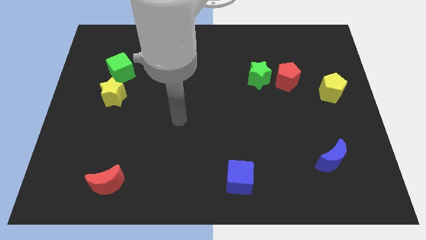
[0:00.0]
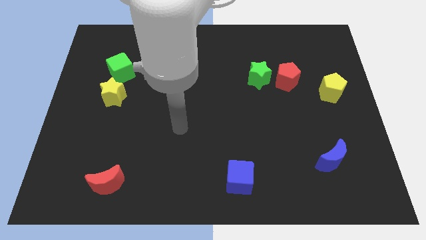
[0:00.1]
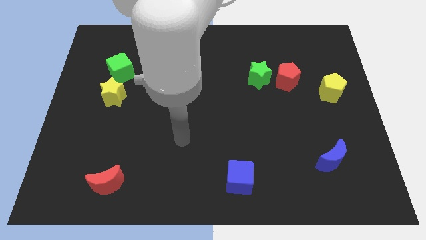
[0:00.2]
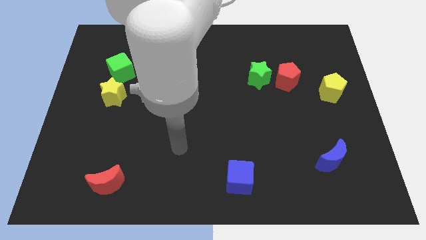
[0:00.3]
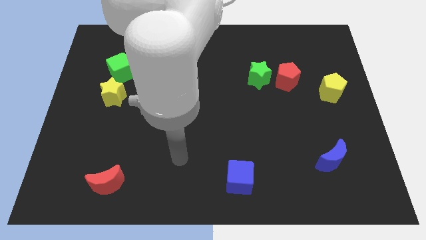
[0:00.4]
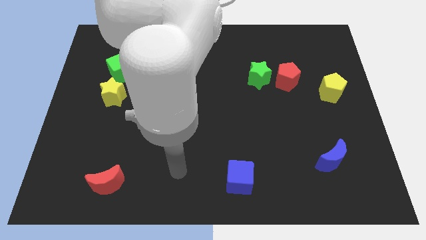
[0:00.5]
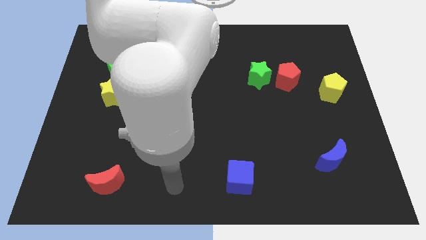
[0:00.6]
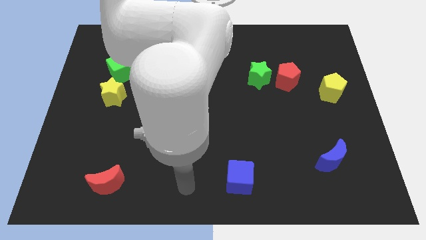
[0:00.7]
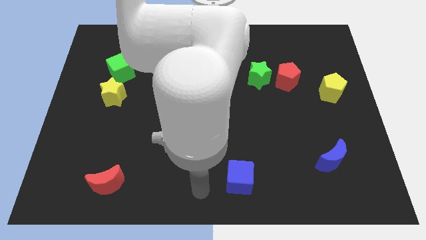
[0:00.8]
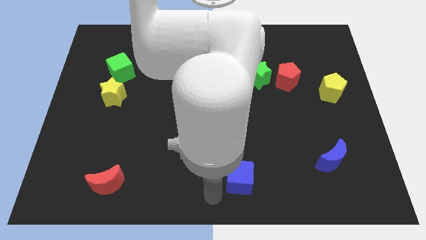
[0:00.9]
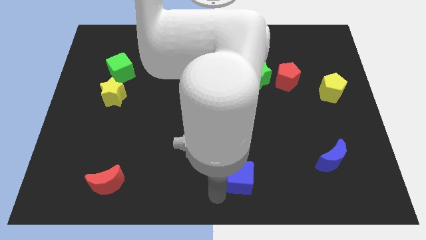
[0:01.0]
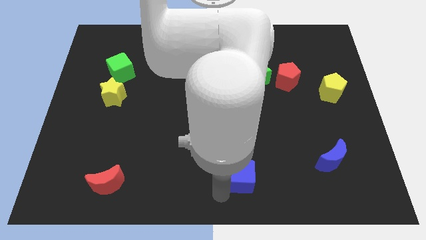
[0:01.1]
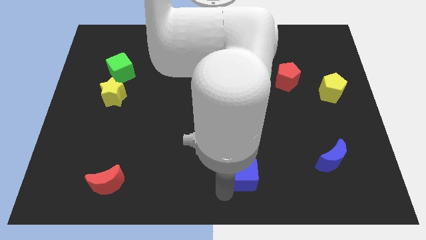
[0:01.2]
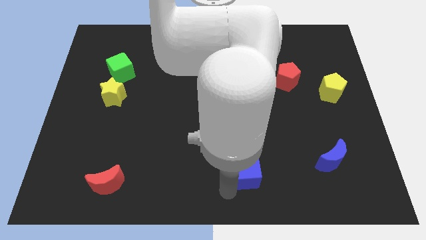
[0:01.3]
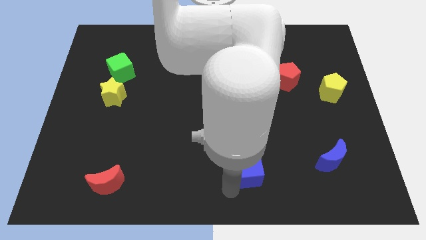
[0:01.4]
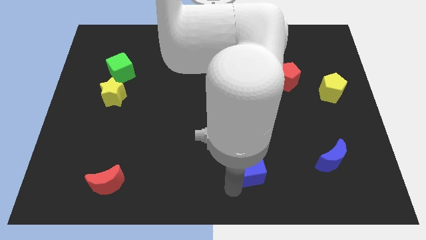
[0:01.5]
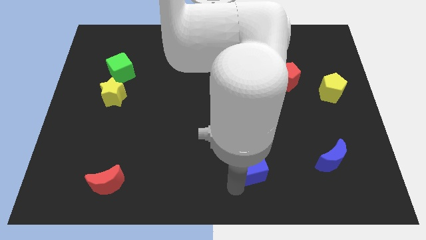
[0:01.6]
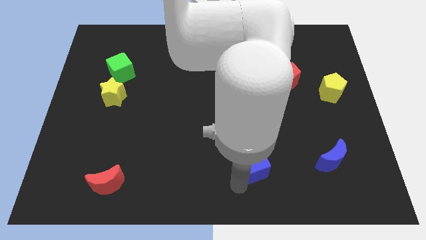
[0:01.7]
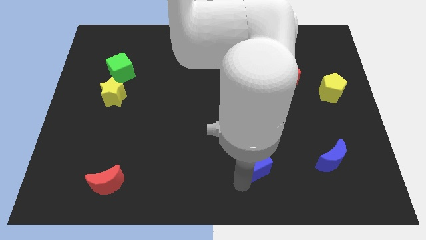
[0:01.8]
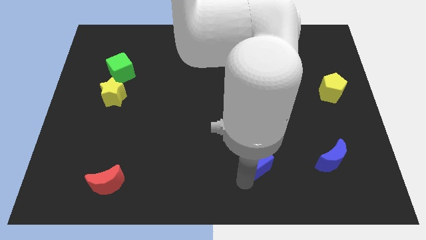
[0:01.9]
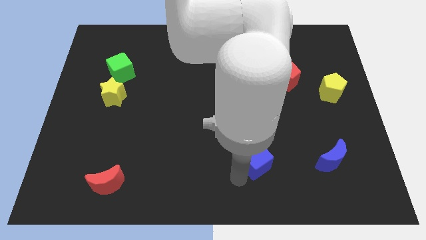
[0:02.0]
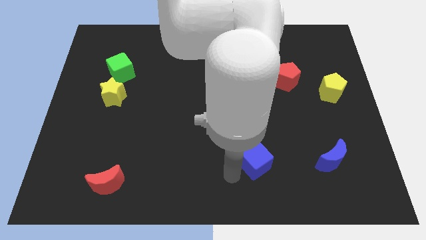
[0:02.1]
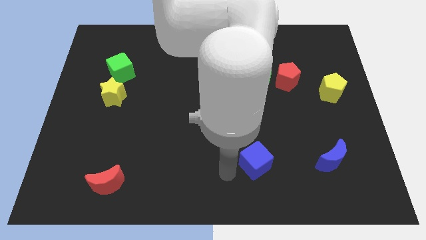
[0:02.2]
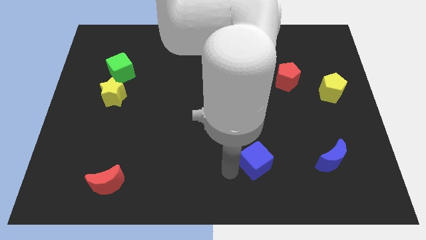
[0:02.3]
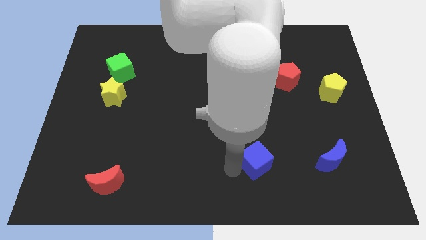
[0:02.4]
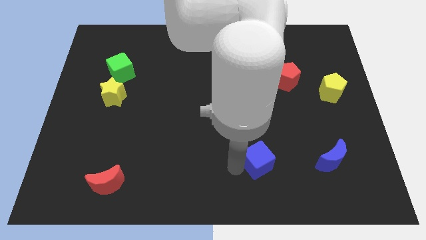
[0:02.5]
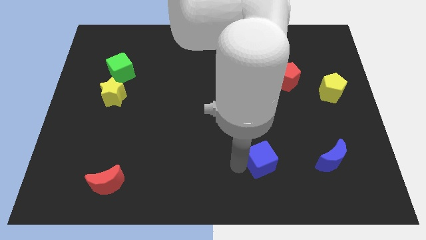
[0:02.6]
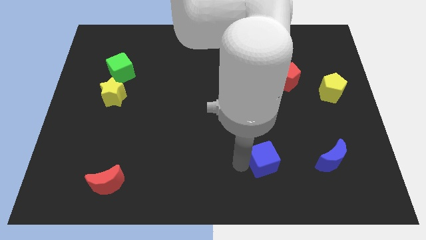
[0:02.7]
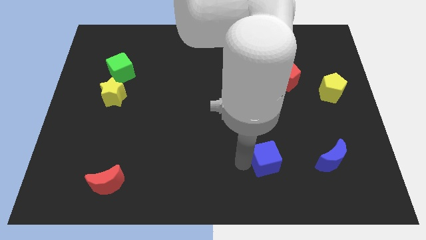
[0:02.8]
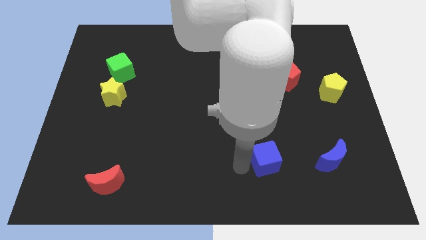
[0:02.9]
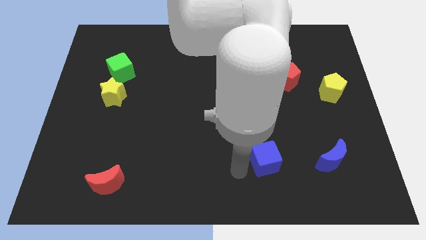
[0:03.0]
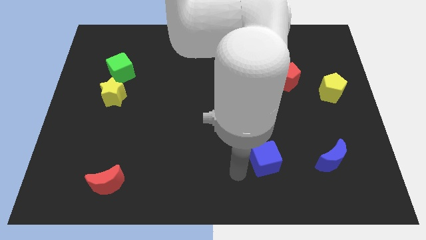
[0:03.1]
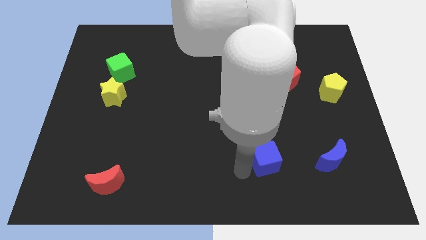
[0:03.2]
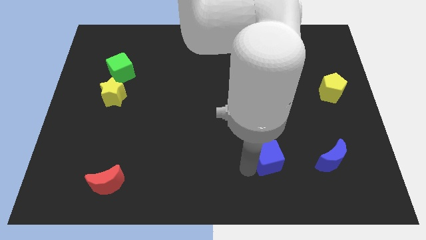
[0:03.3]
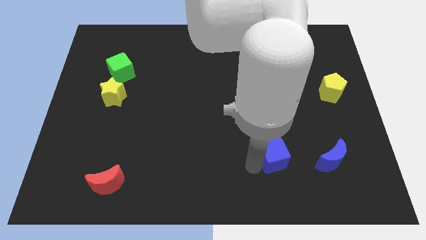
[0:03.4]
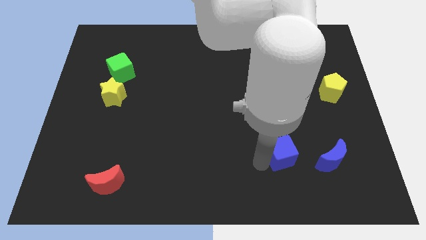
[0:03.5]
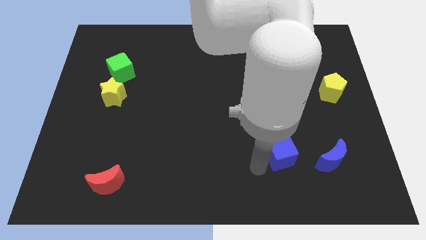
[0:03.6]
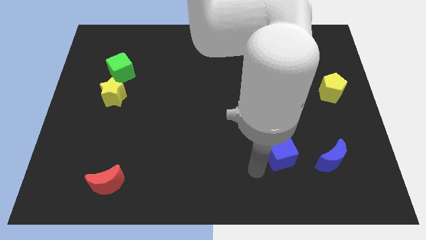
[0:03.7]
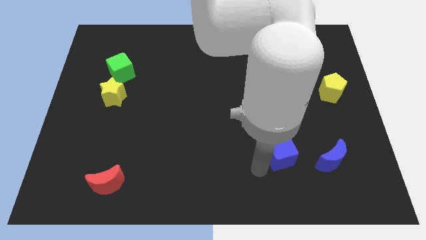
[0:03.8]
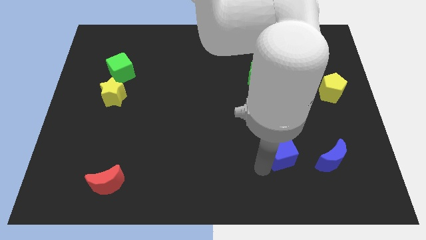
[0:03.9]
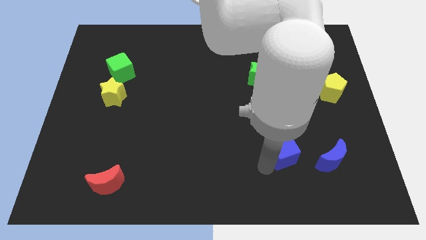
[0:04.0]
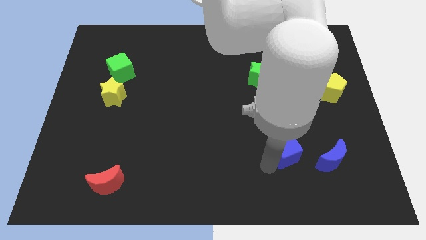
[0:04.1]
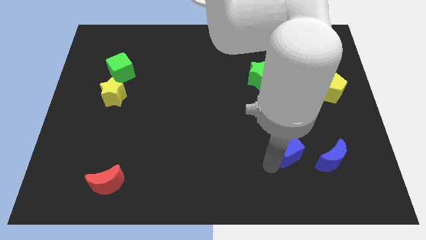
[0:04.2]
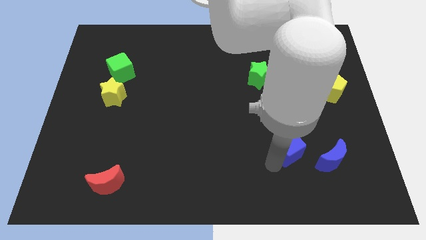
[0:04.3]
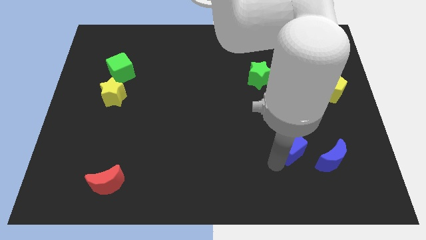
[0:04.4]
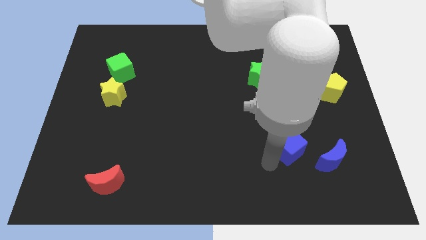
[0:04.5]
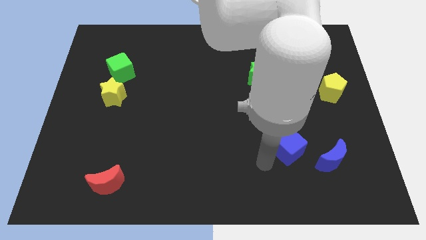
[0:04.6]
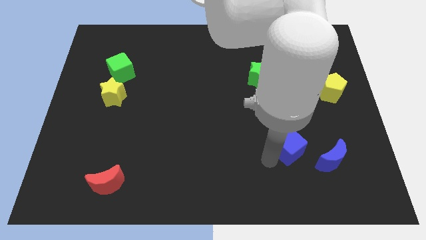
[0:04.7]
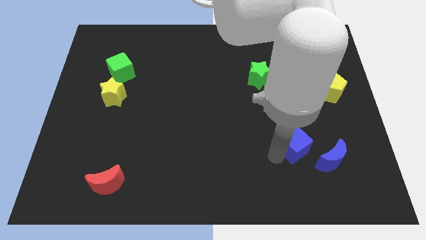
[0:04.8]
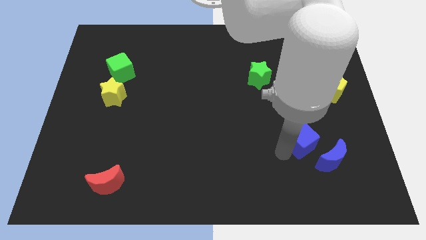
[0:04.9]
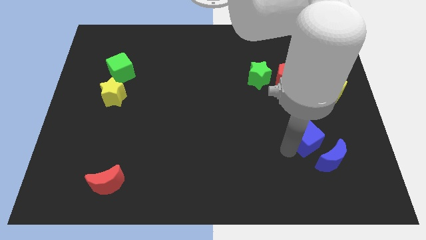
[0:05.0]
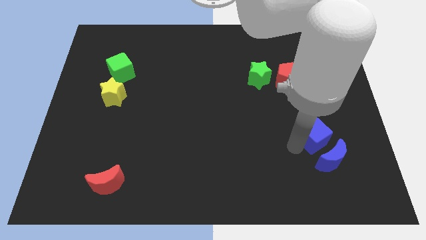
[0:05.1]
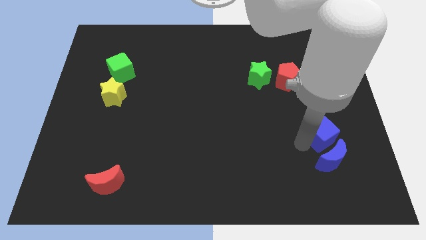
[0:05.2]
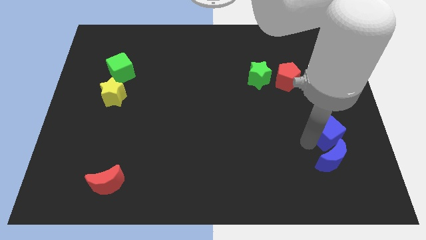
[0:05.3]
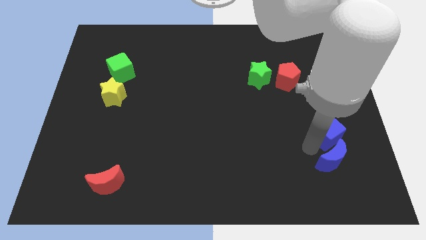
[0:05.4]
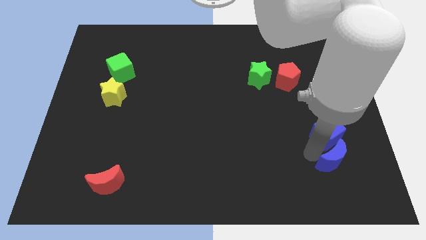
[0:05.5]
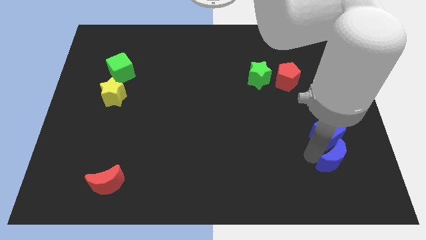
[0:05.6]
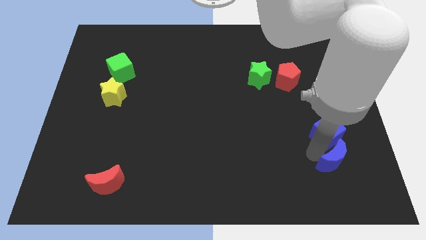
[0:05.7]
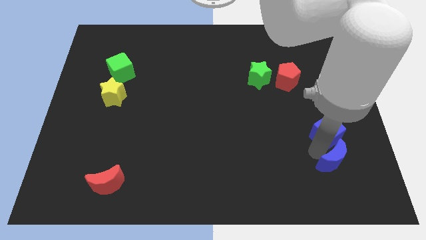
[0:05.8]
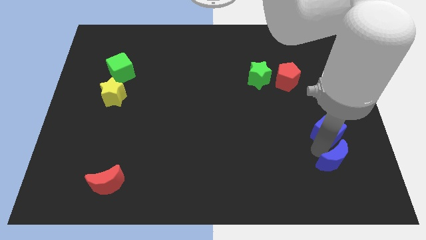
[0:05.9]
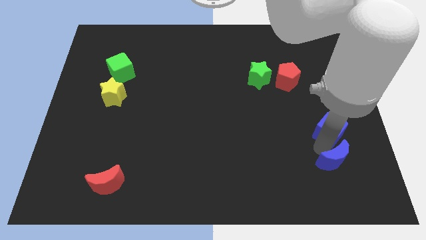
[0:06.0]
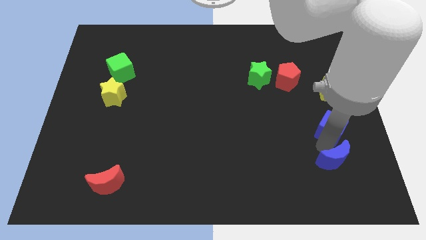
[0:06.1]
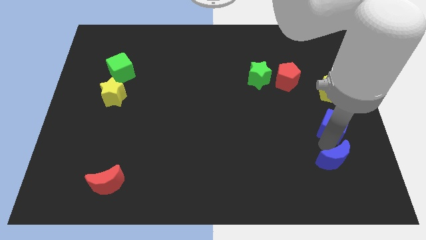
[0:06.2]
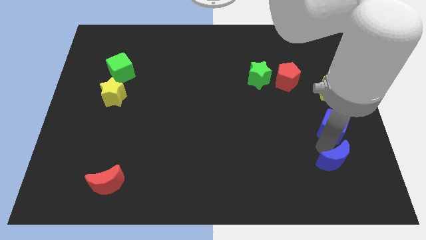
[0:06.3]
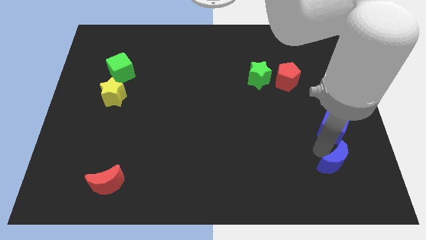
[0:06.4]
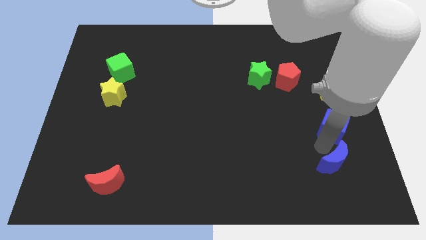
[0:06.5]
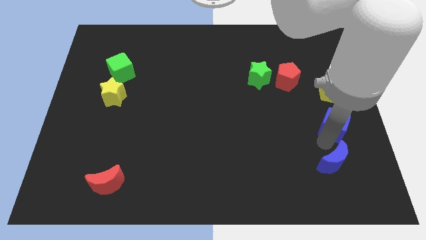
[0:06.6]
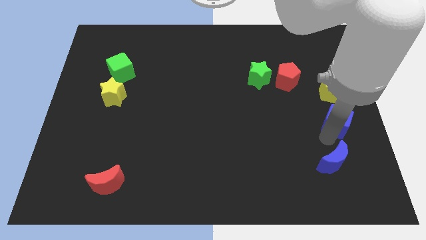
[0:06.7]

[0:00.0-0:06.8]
slide the blue cube to the right side
